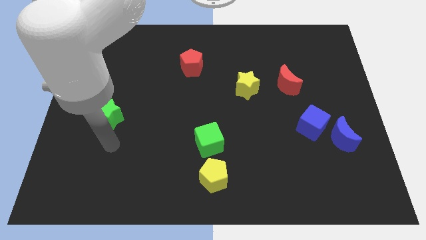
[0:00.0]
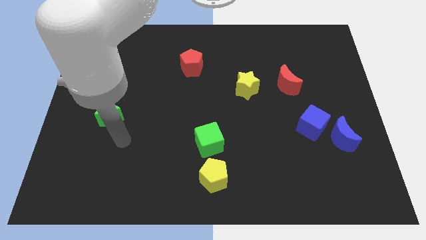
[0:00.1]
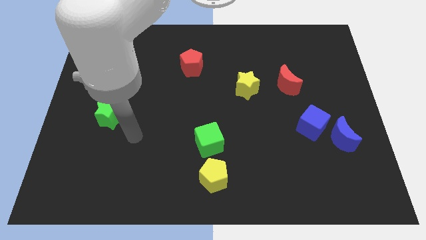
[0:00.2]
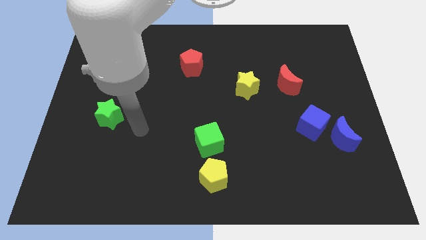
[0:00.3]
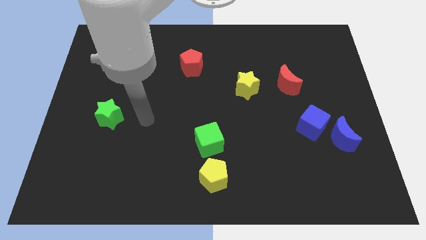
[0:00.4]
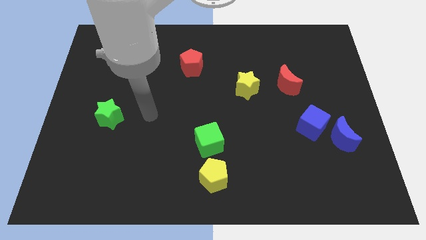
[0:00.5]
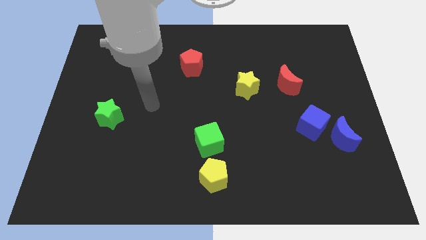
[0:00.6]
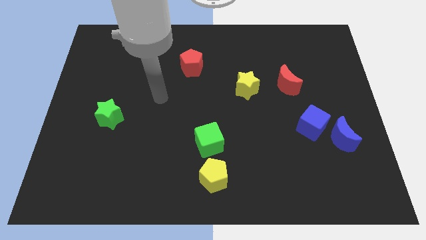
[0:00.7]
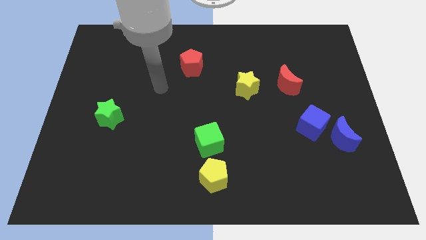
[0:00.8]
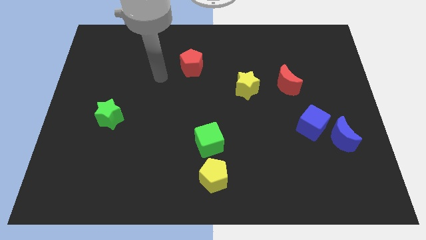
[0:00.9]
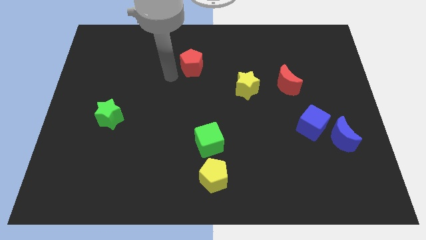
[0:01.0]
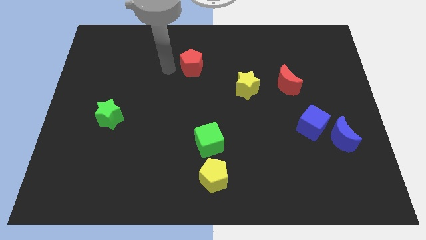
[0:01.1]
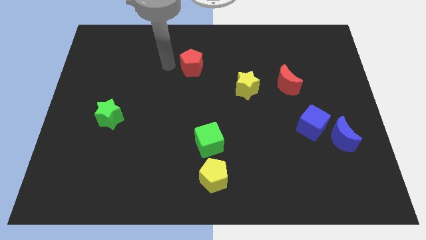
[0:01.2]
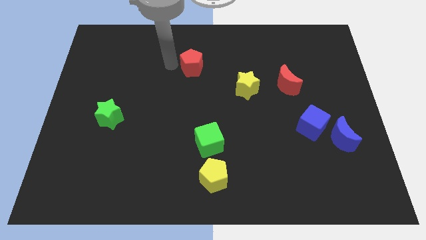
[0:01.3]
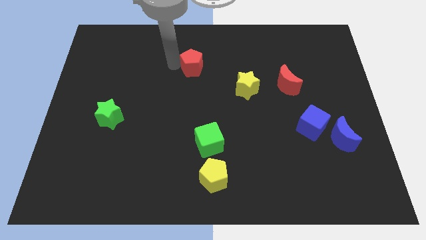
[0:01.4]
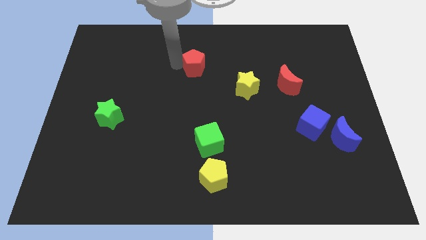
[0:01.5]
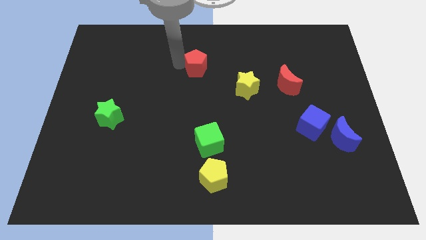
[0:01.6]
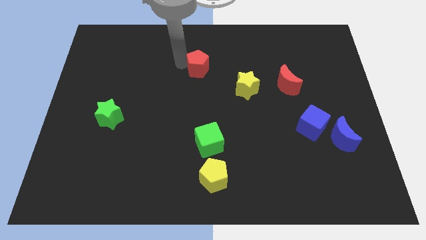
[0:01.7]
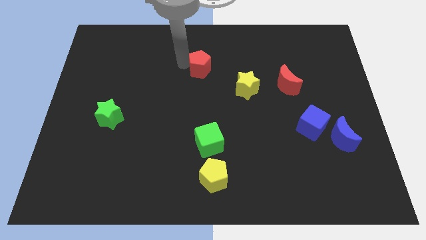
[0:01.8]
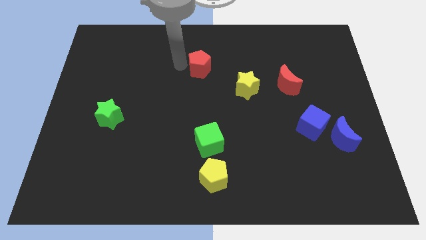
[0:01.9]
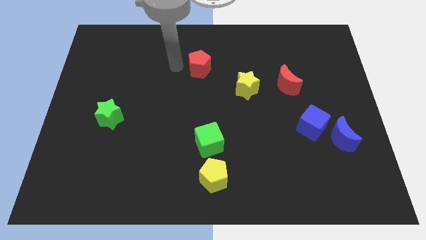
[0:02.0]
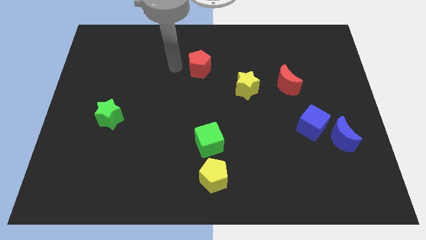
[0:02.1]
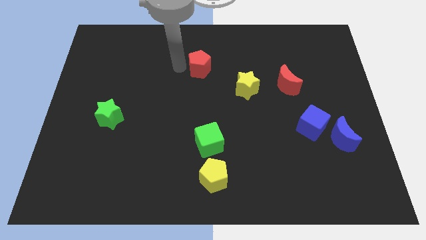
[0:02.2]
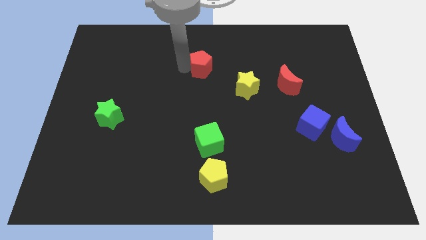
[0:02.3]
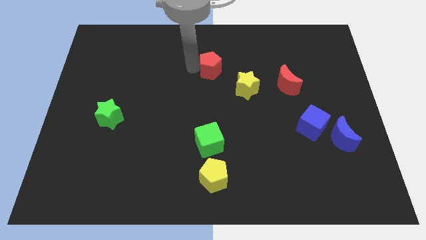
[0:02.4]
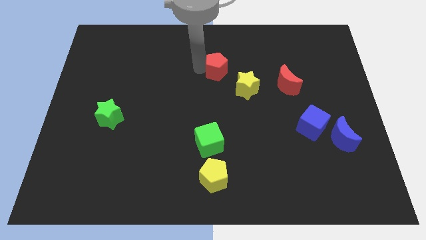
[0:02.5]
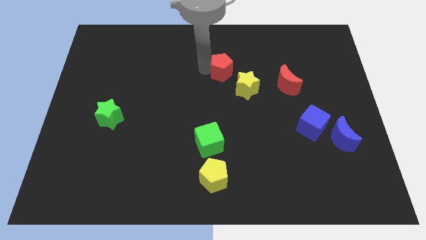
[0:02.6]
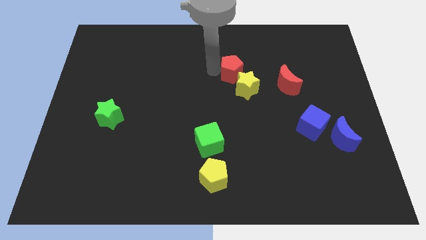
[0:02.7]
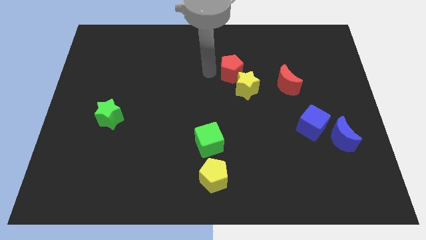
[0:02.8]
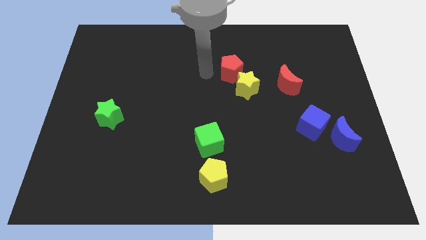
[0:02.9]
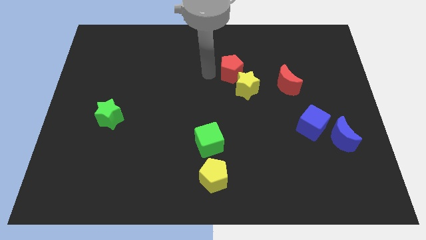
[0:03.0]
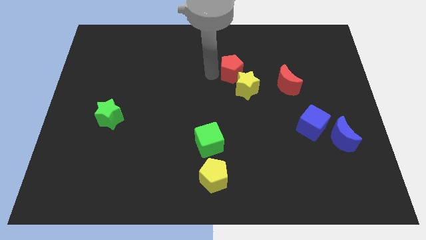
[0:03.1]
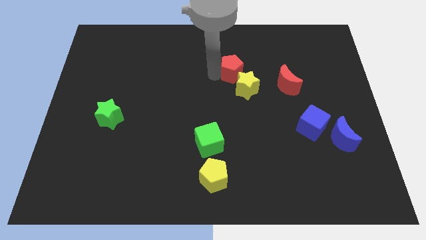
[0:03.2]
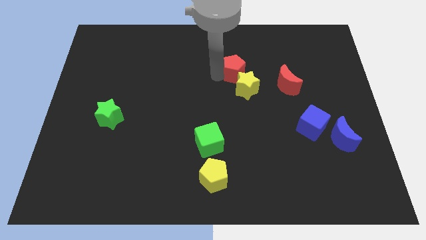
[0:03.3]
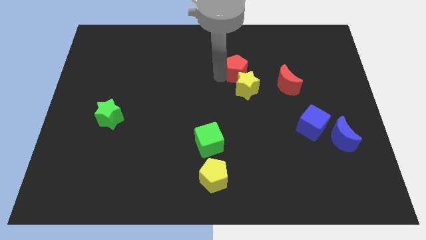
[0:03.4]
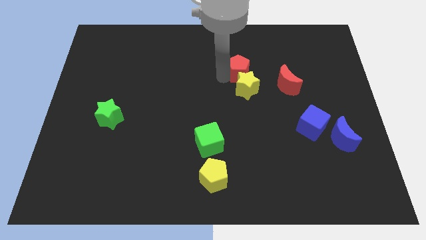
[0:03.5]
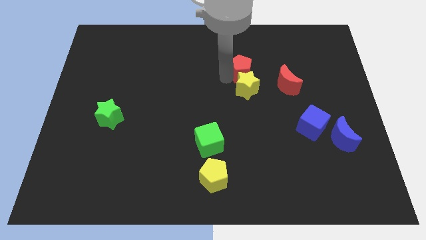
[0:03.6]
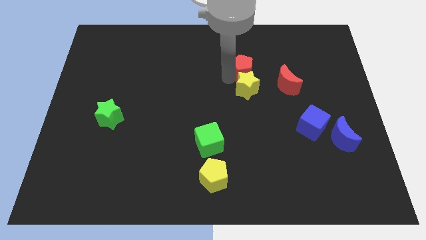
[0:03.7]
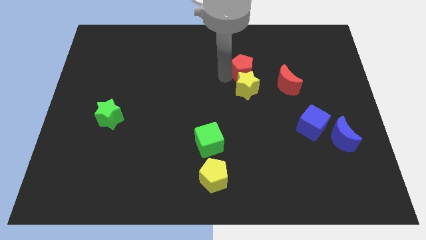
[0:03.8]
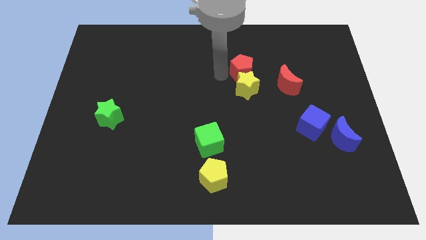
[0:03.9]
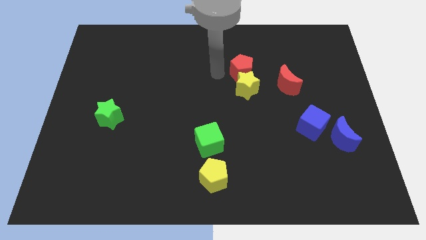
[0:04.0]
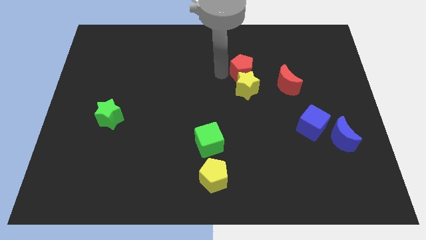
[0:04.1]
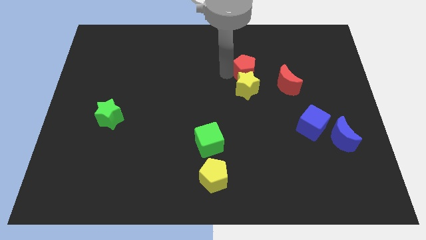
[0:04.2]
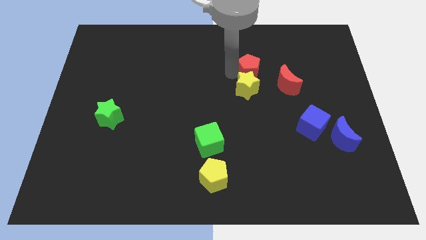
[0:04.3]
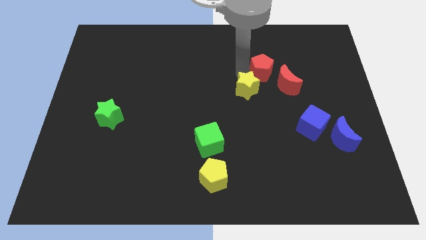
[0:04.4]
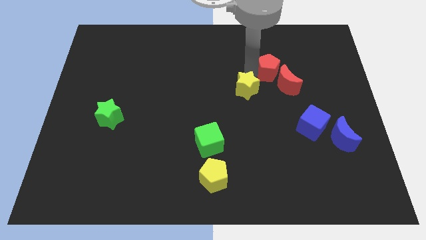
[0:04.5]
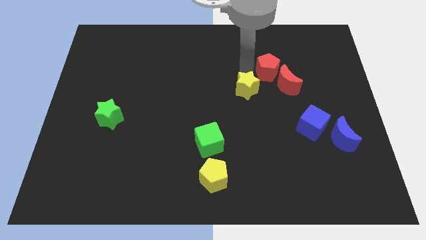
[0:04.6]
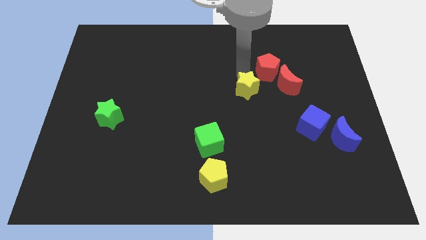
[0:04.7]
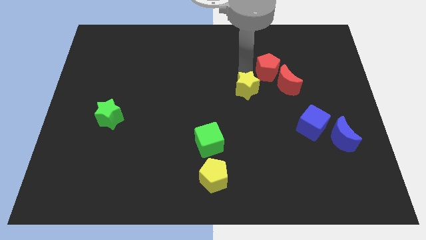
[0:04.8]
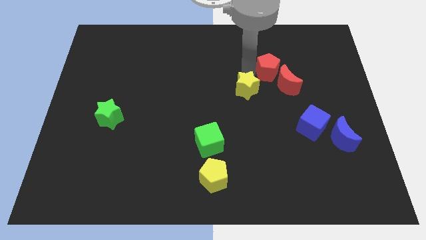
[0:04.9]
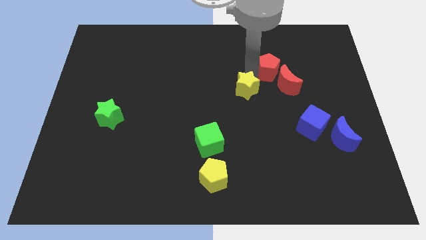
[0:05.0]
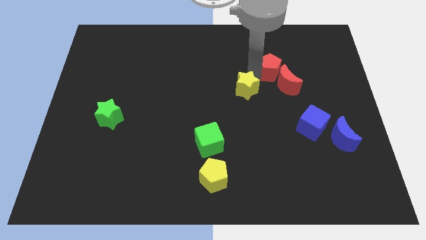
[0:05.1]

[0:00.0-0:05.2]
move the red pentagon to the right

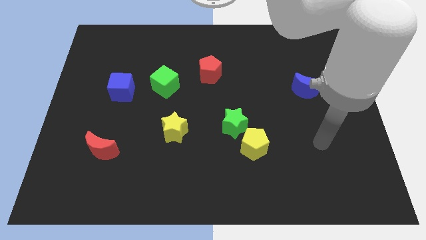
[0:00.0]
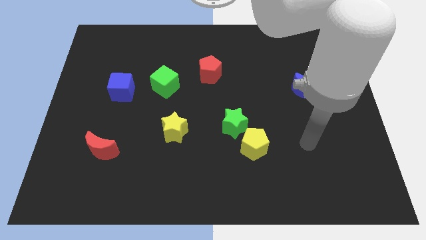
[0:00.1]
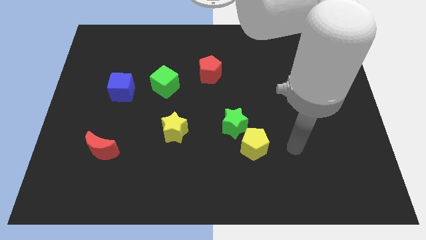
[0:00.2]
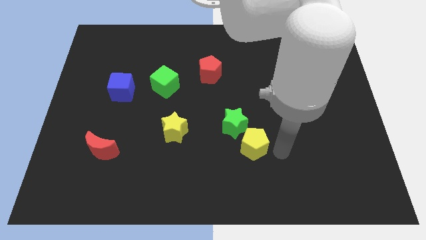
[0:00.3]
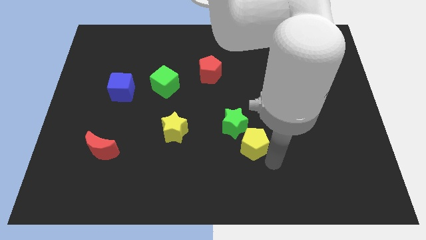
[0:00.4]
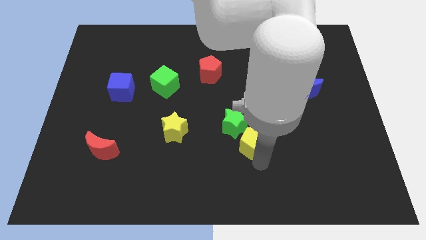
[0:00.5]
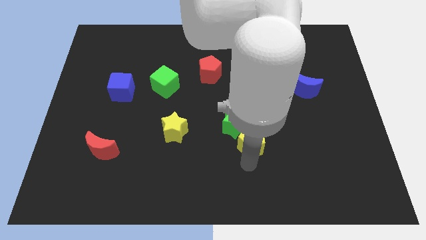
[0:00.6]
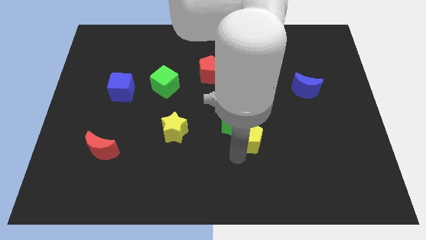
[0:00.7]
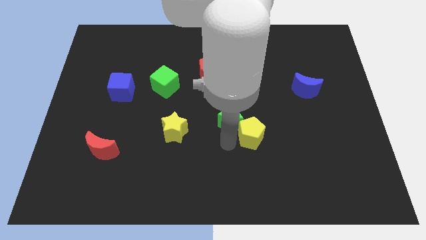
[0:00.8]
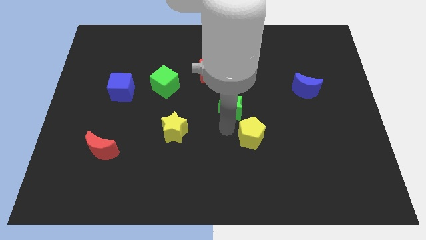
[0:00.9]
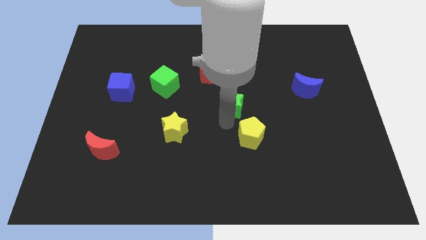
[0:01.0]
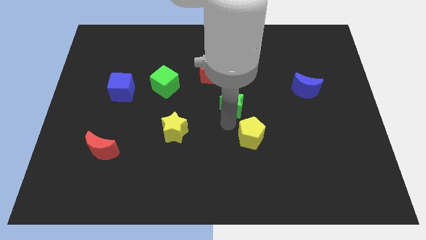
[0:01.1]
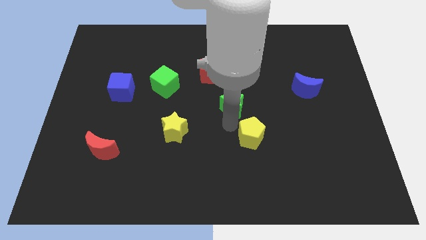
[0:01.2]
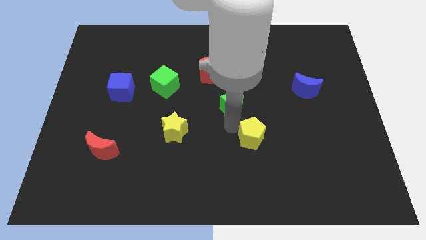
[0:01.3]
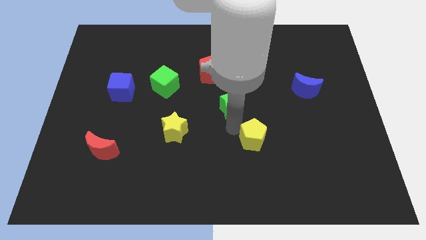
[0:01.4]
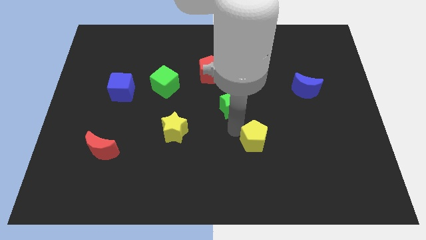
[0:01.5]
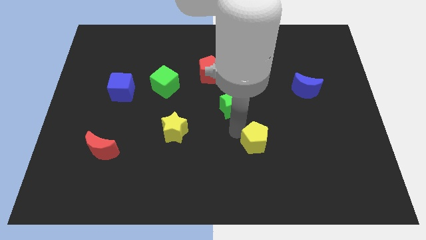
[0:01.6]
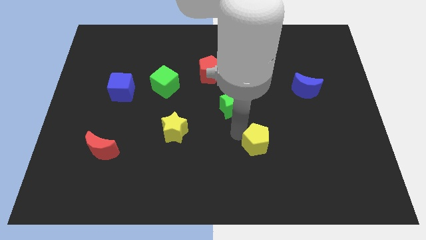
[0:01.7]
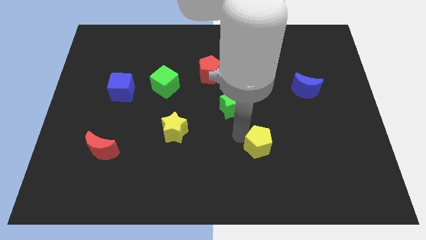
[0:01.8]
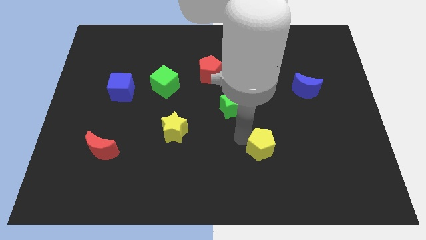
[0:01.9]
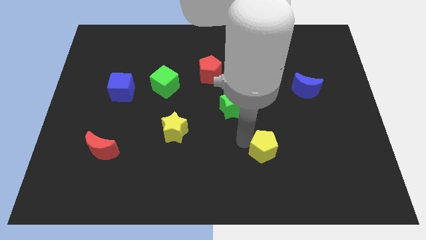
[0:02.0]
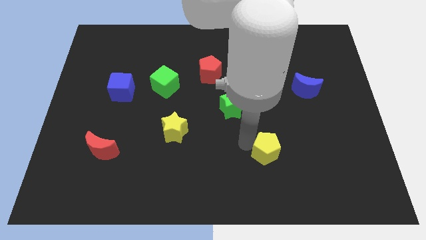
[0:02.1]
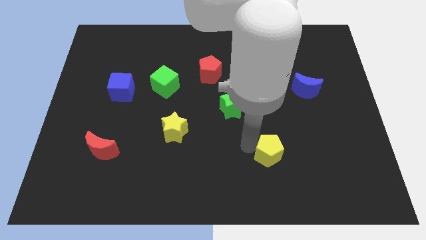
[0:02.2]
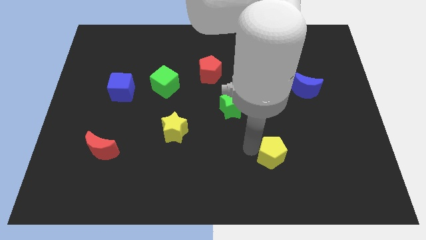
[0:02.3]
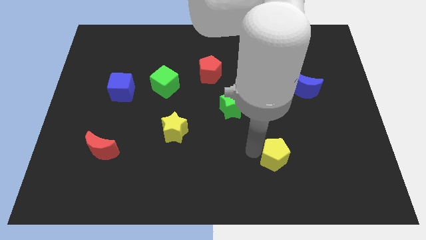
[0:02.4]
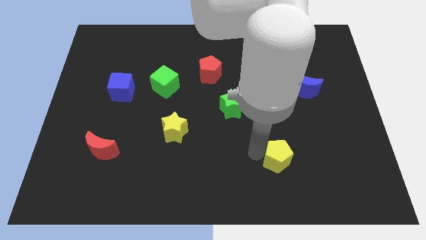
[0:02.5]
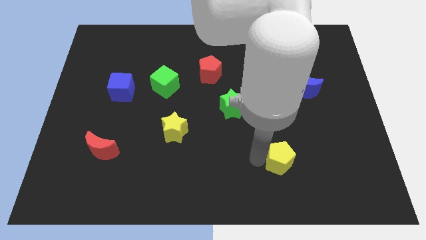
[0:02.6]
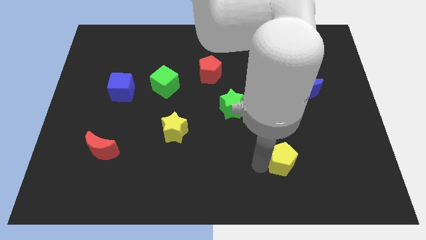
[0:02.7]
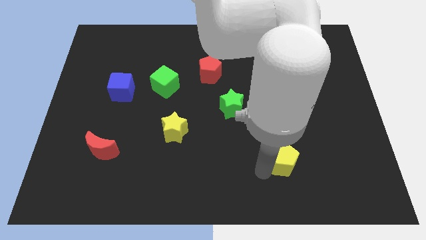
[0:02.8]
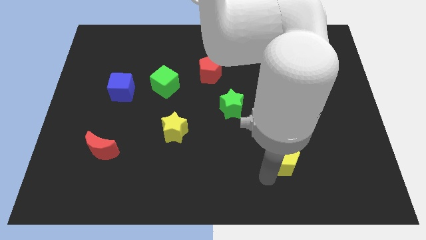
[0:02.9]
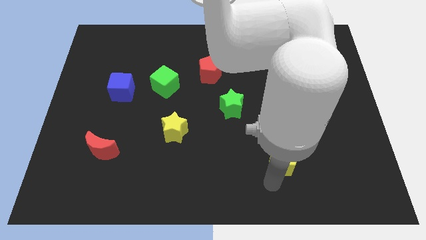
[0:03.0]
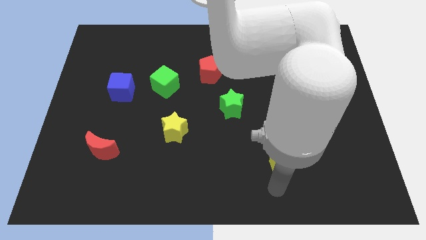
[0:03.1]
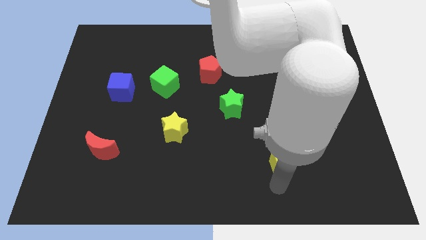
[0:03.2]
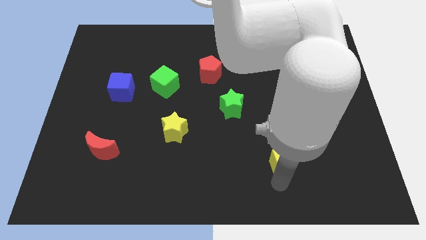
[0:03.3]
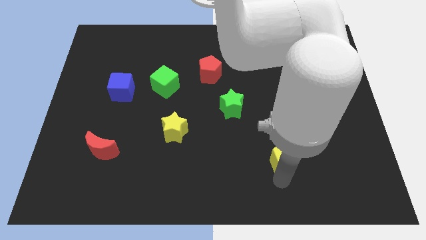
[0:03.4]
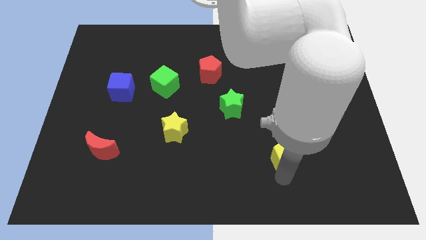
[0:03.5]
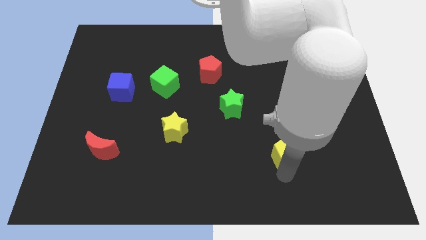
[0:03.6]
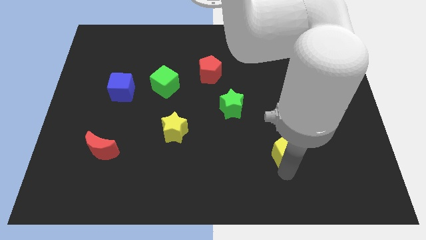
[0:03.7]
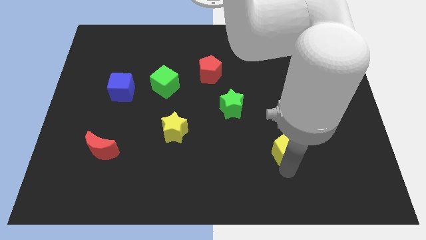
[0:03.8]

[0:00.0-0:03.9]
slightly push the yellow pentagon right
